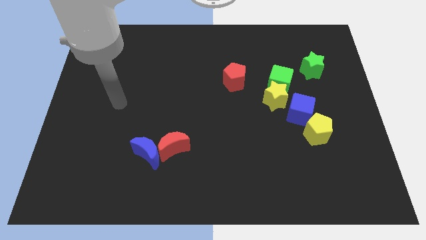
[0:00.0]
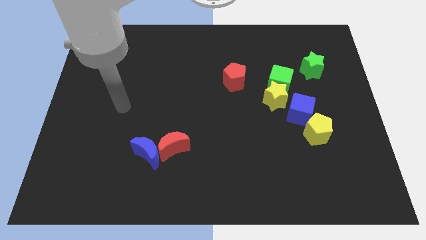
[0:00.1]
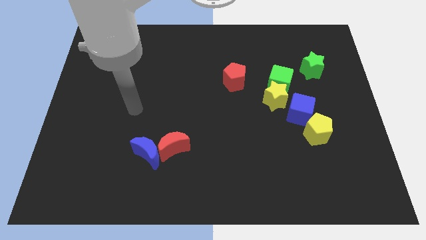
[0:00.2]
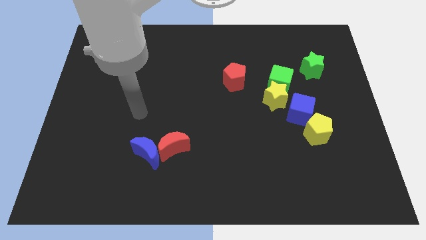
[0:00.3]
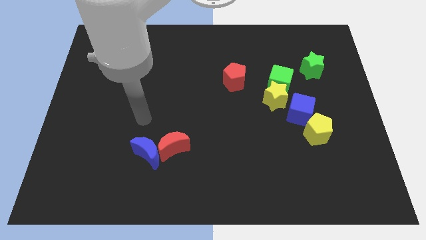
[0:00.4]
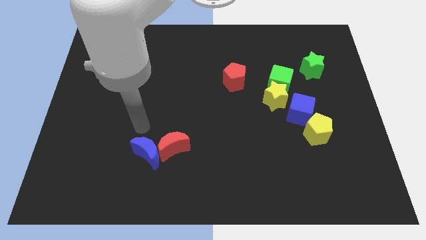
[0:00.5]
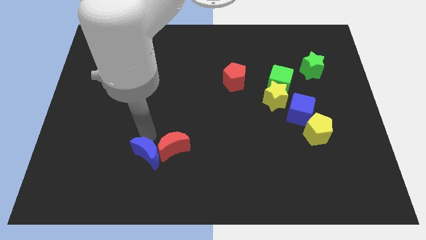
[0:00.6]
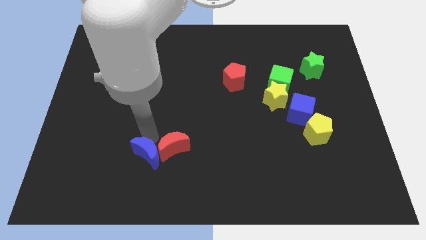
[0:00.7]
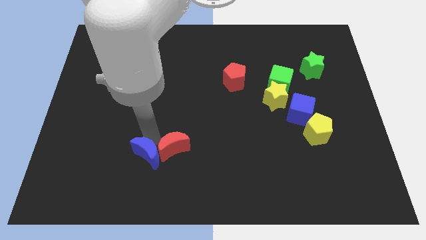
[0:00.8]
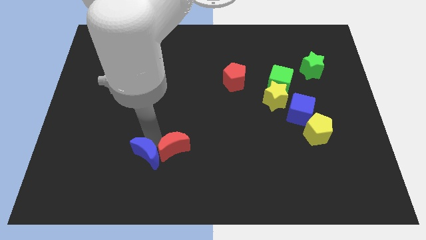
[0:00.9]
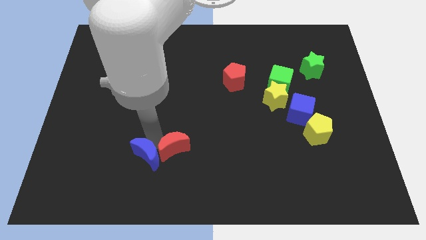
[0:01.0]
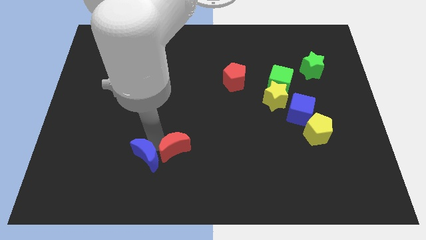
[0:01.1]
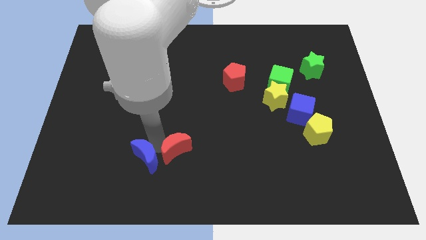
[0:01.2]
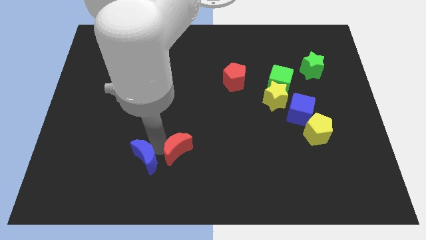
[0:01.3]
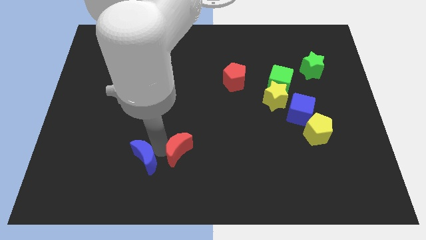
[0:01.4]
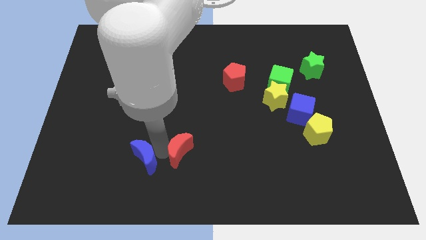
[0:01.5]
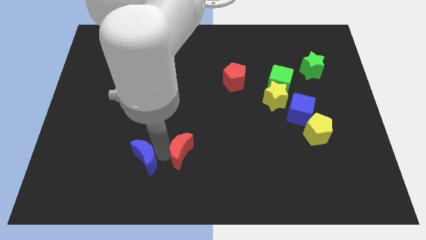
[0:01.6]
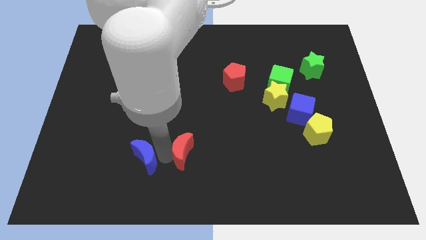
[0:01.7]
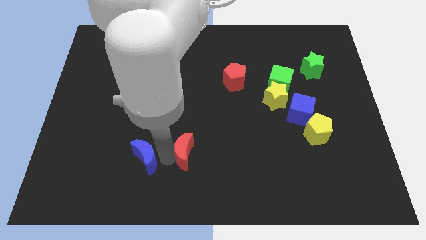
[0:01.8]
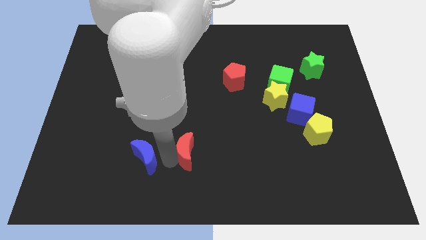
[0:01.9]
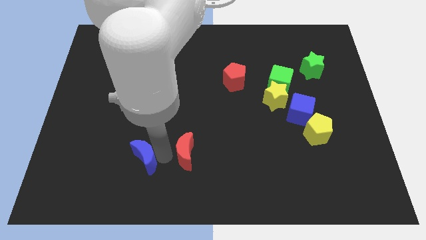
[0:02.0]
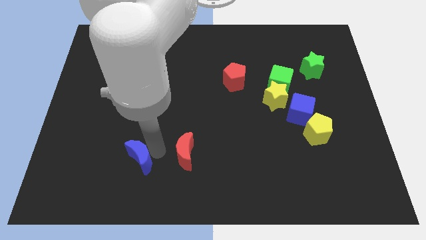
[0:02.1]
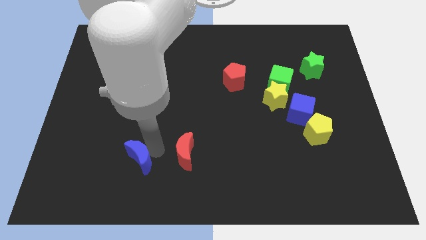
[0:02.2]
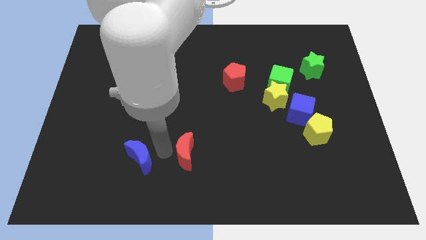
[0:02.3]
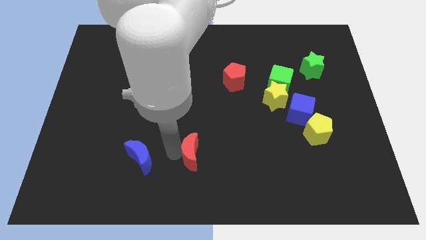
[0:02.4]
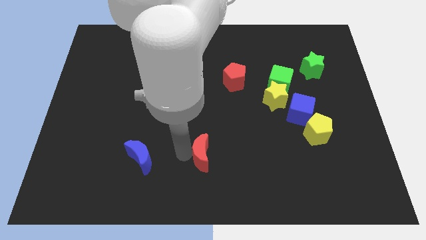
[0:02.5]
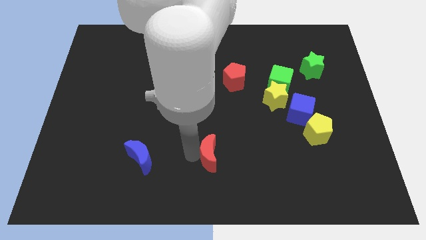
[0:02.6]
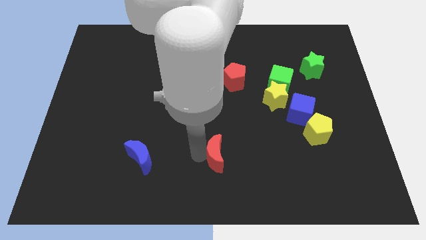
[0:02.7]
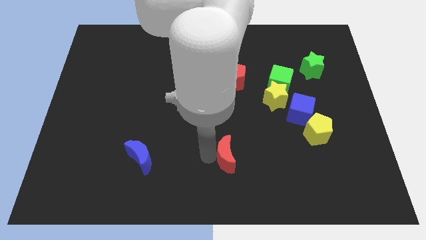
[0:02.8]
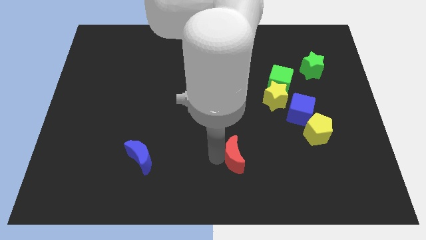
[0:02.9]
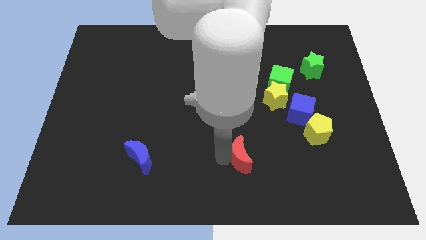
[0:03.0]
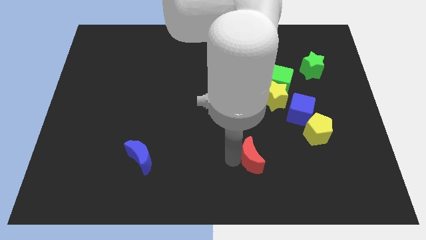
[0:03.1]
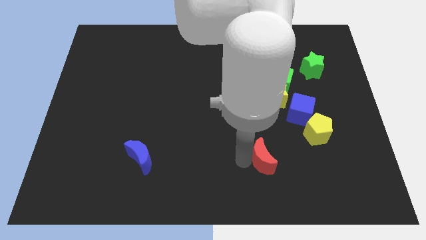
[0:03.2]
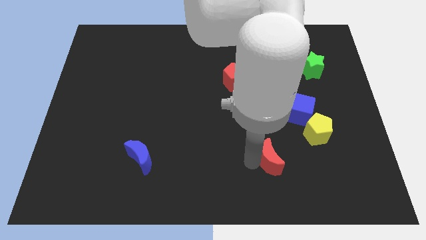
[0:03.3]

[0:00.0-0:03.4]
move the red moon right

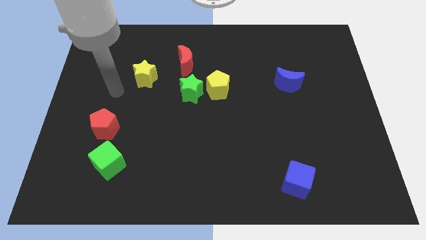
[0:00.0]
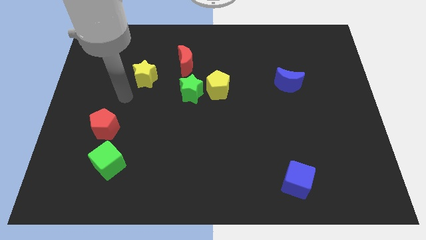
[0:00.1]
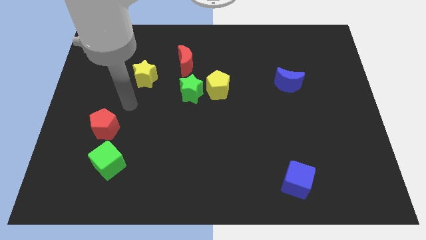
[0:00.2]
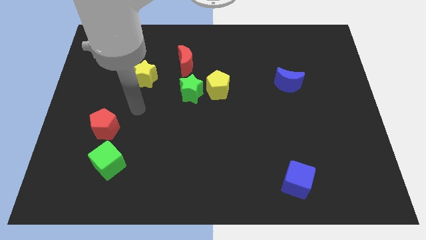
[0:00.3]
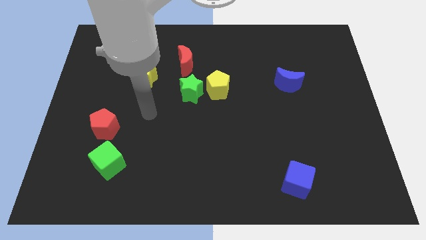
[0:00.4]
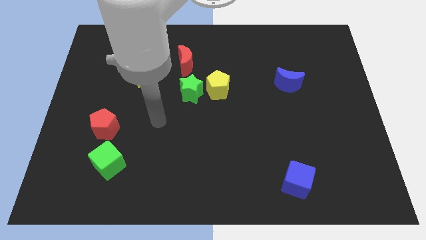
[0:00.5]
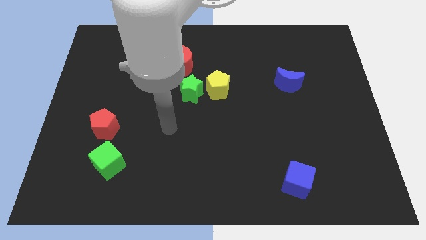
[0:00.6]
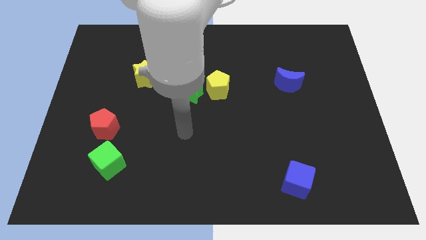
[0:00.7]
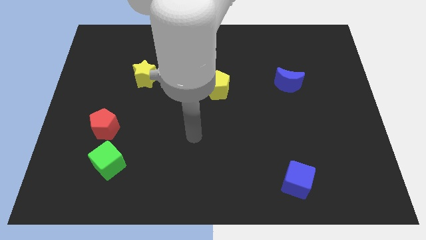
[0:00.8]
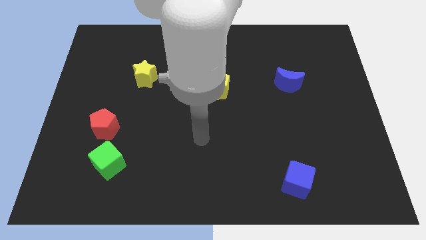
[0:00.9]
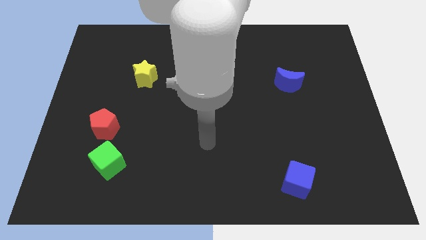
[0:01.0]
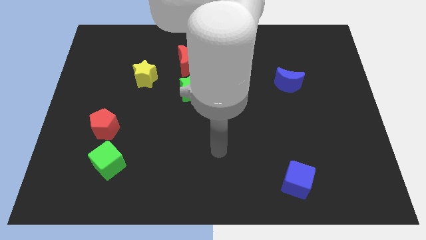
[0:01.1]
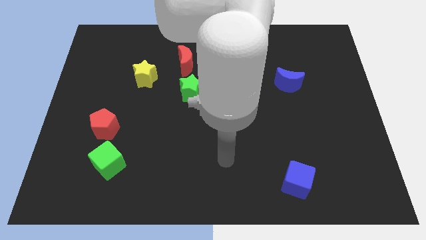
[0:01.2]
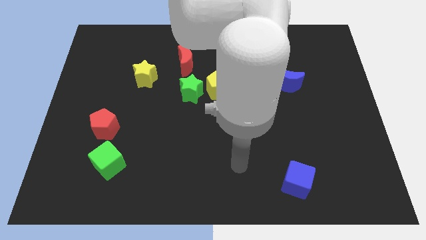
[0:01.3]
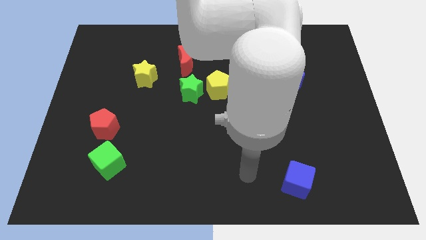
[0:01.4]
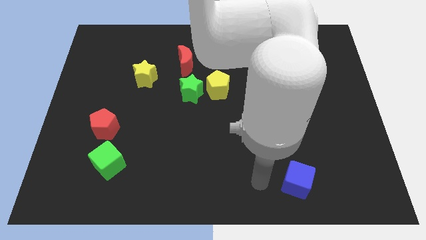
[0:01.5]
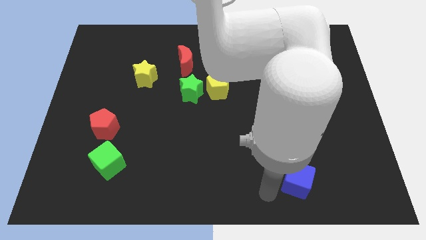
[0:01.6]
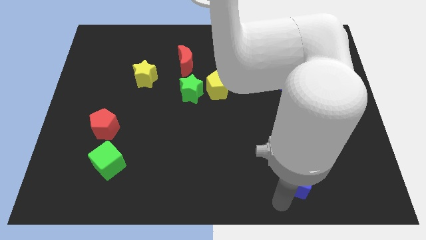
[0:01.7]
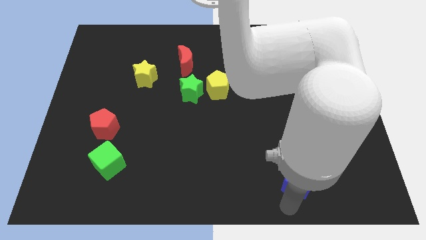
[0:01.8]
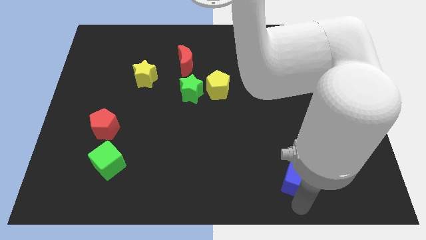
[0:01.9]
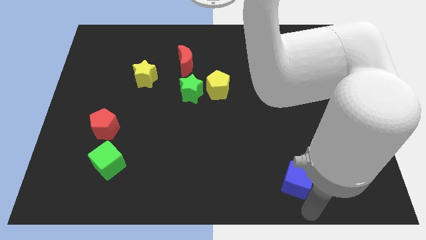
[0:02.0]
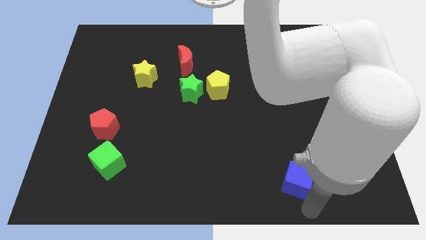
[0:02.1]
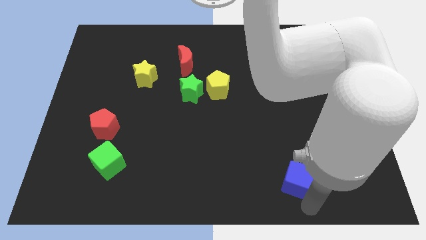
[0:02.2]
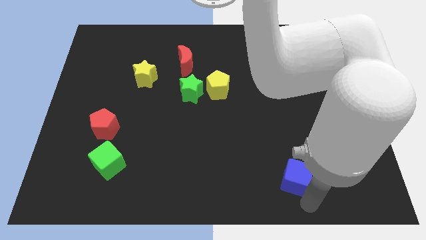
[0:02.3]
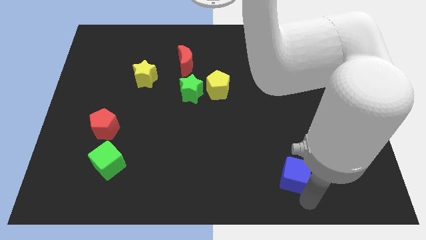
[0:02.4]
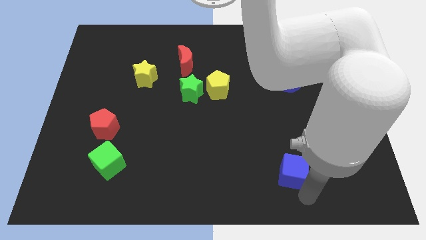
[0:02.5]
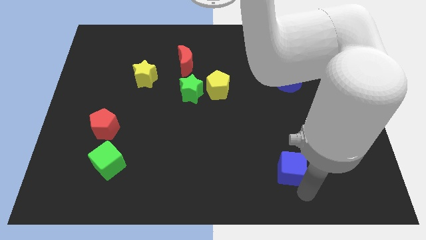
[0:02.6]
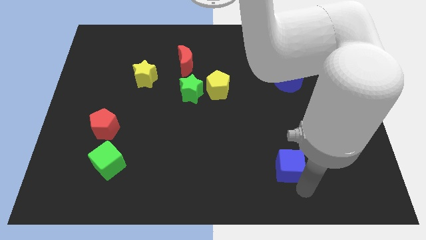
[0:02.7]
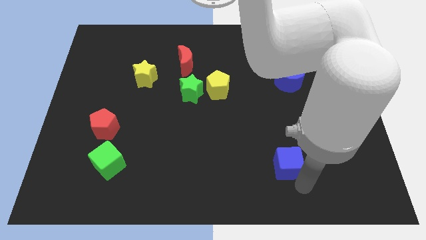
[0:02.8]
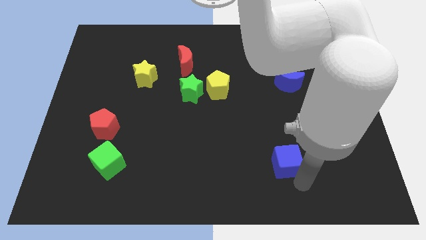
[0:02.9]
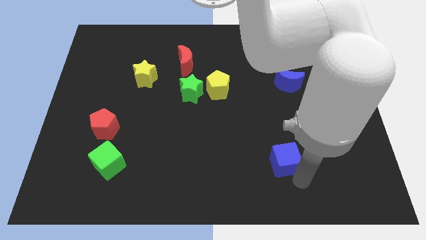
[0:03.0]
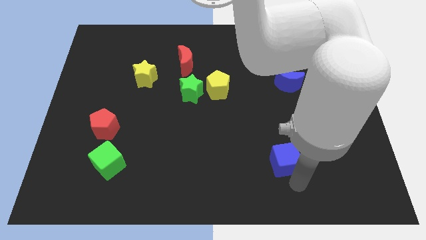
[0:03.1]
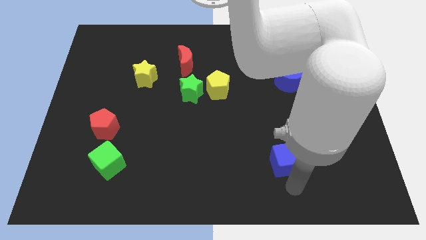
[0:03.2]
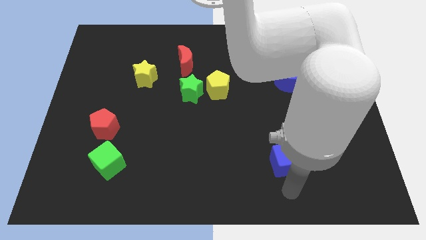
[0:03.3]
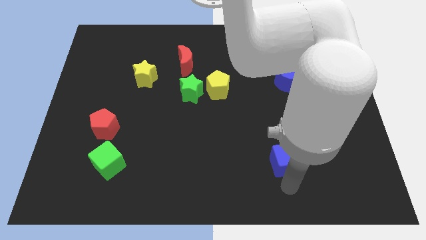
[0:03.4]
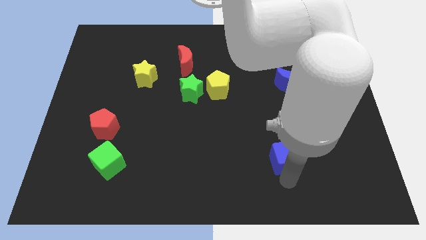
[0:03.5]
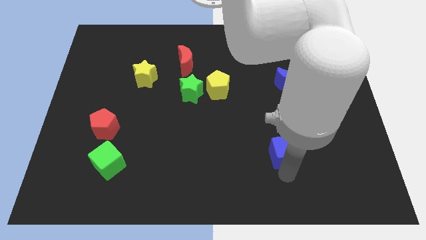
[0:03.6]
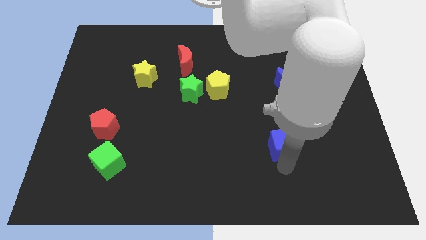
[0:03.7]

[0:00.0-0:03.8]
move the blue cube upwards slightly

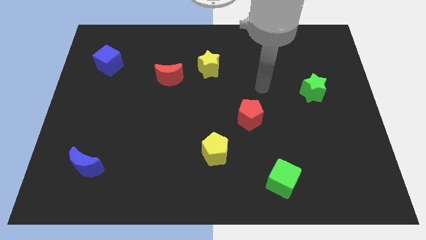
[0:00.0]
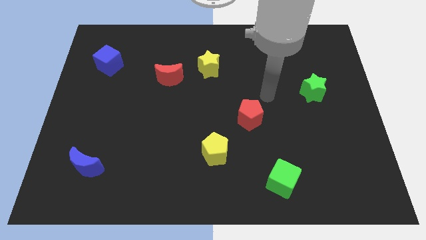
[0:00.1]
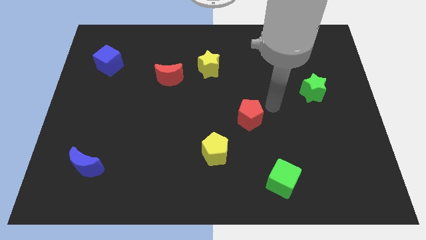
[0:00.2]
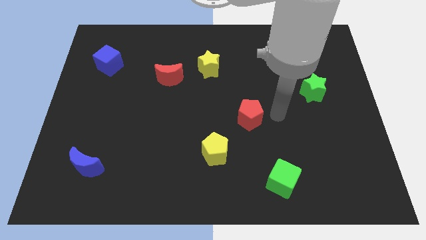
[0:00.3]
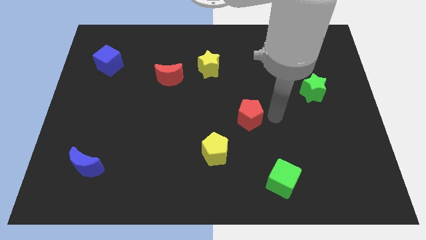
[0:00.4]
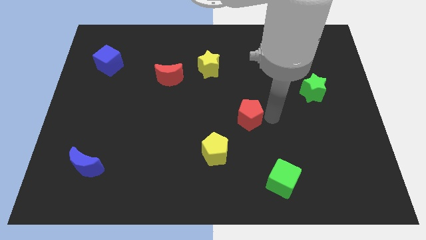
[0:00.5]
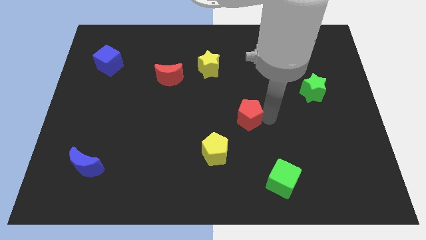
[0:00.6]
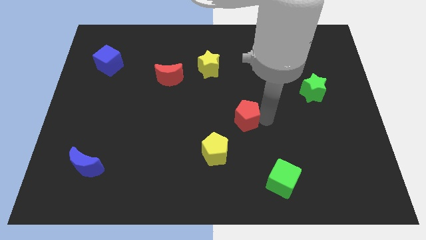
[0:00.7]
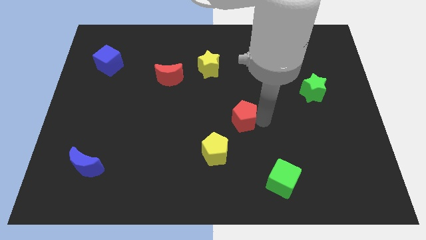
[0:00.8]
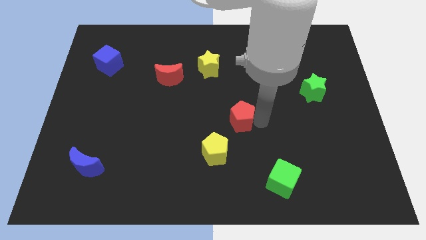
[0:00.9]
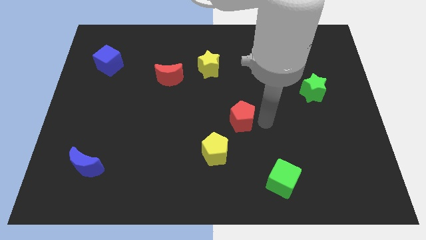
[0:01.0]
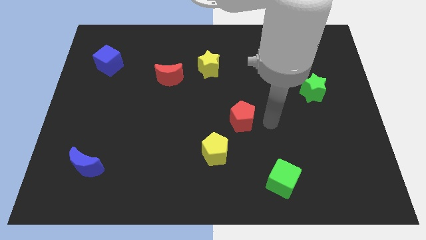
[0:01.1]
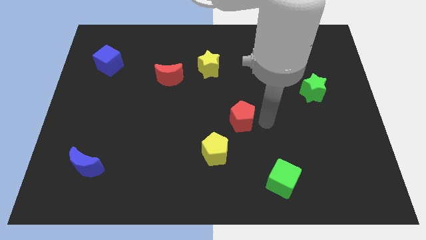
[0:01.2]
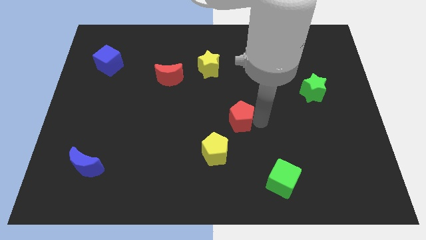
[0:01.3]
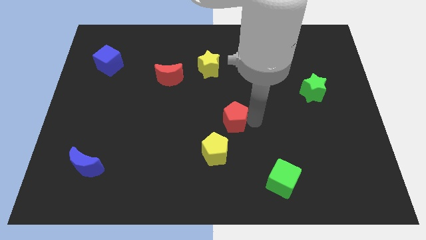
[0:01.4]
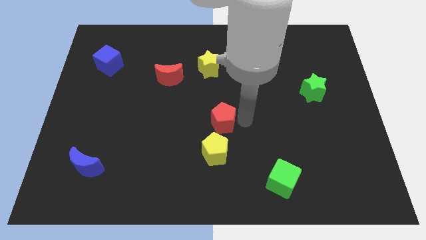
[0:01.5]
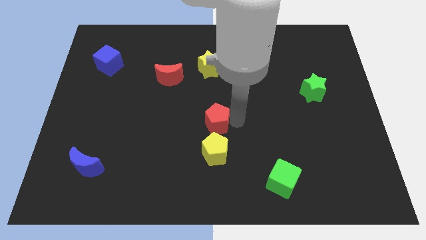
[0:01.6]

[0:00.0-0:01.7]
slightly push the red pentagon to the left
